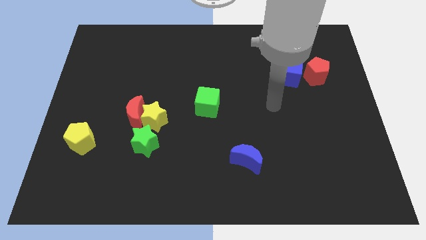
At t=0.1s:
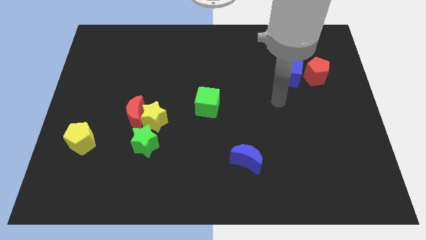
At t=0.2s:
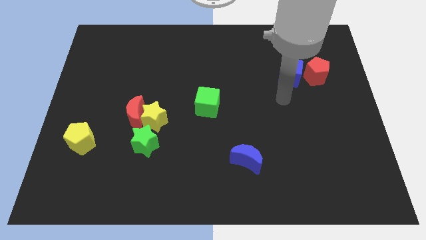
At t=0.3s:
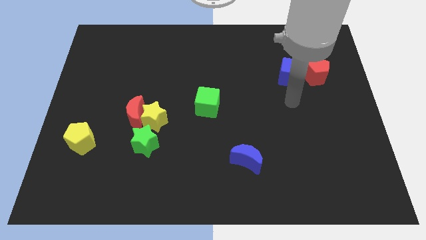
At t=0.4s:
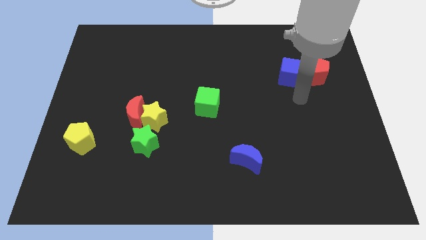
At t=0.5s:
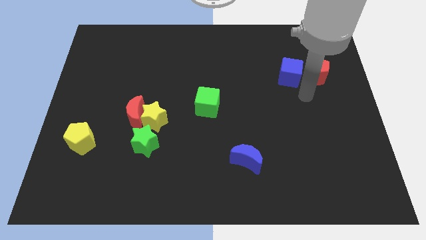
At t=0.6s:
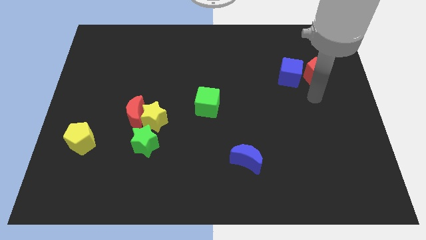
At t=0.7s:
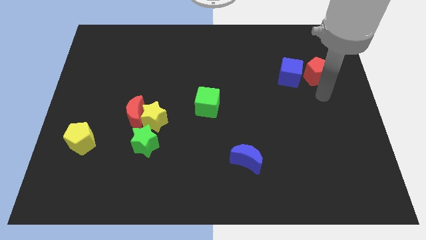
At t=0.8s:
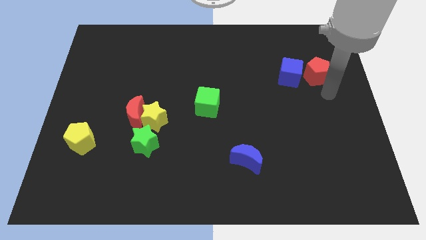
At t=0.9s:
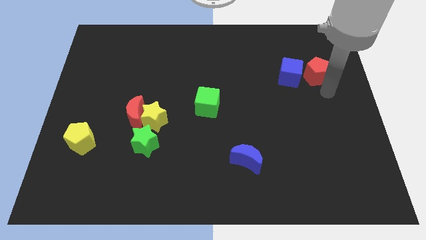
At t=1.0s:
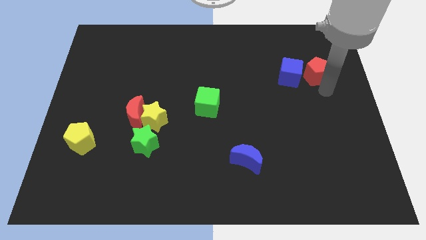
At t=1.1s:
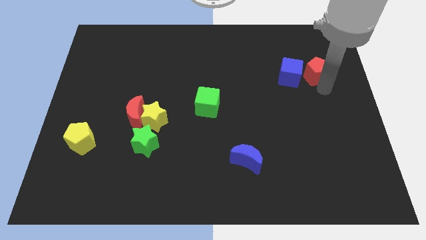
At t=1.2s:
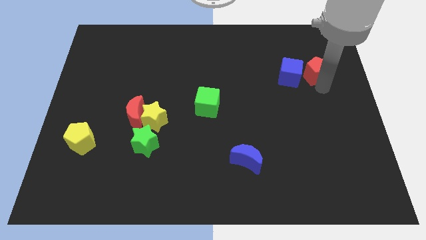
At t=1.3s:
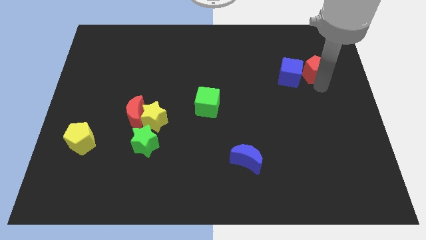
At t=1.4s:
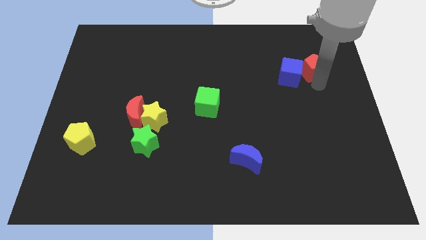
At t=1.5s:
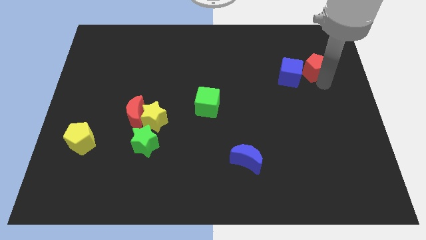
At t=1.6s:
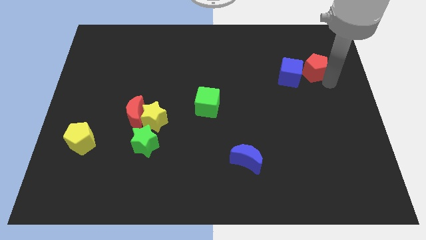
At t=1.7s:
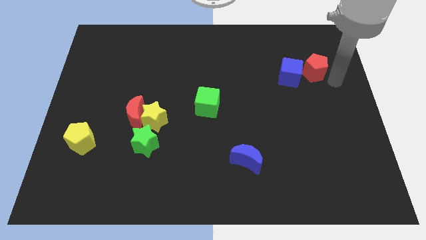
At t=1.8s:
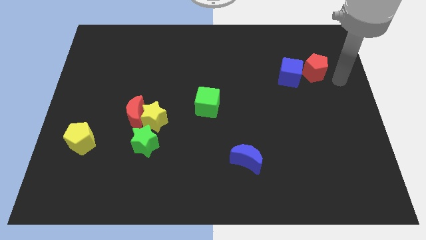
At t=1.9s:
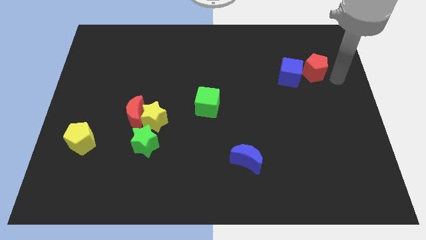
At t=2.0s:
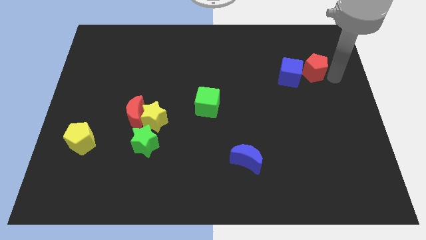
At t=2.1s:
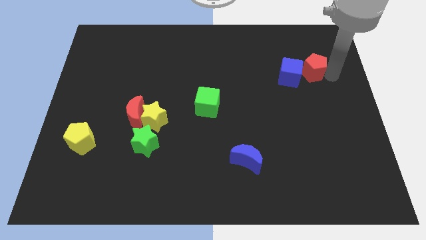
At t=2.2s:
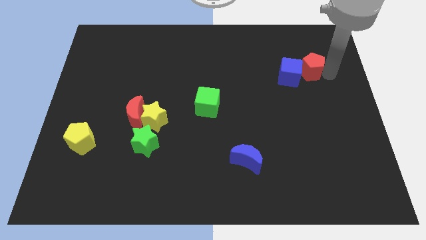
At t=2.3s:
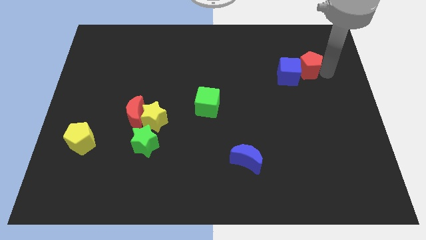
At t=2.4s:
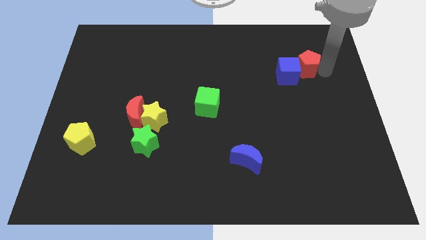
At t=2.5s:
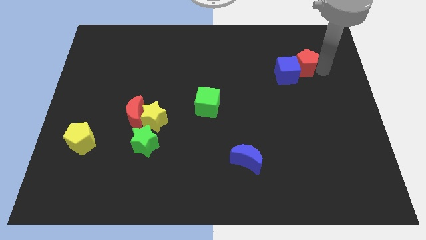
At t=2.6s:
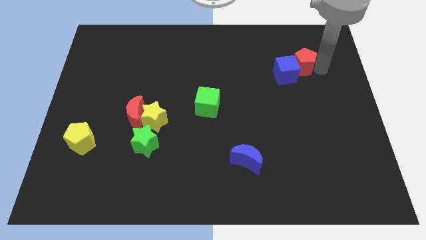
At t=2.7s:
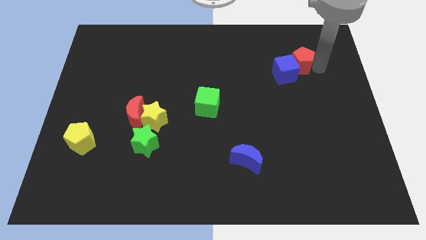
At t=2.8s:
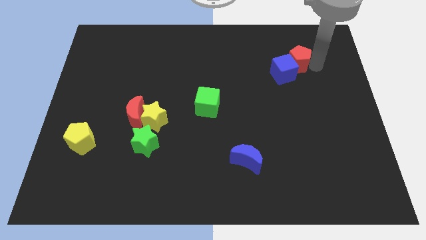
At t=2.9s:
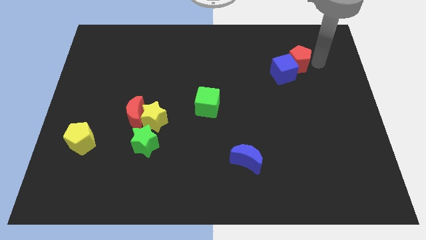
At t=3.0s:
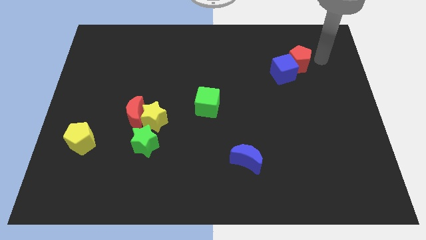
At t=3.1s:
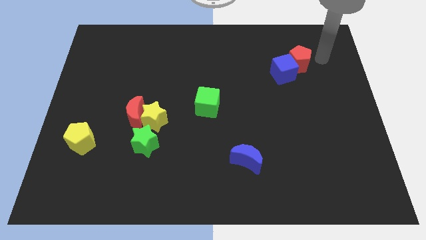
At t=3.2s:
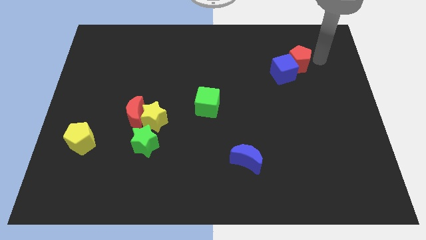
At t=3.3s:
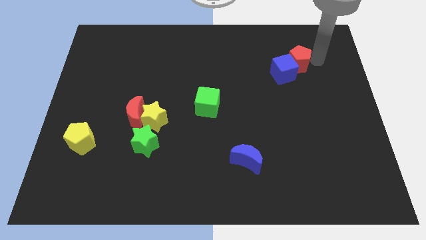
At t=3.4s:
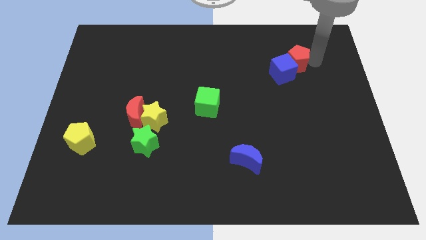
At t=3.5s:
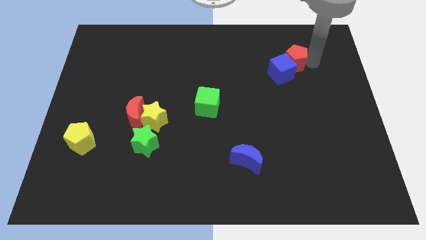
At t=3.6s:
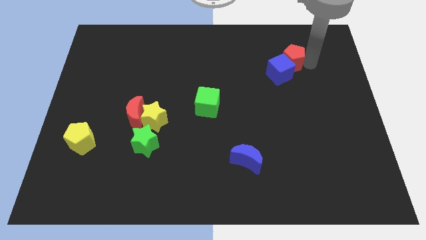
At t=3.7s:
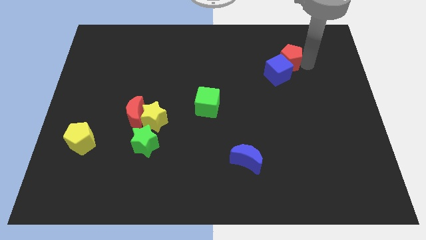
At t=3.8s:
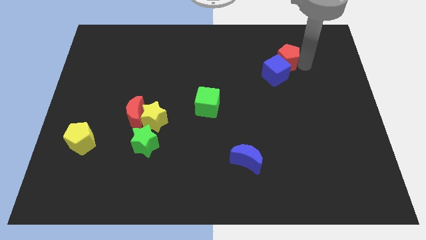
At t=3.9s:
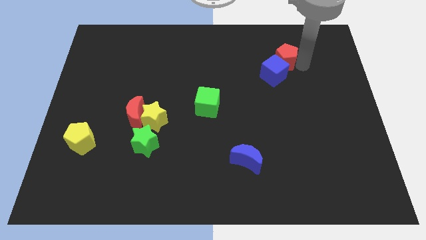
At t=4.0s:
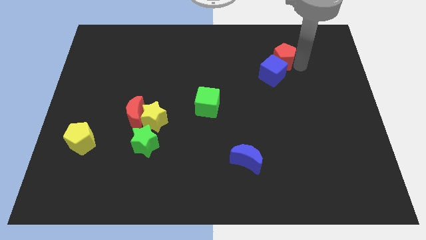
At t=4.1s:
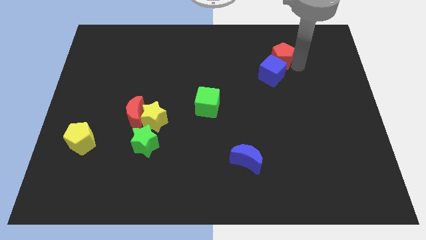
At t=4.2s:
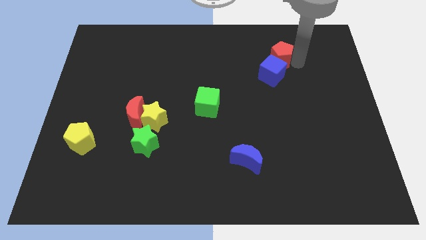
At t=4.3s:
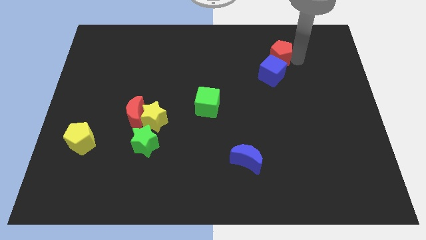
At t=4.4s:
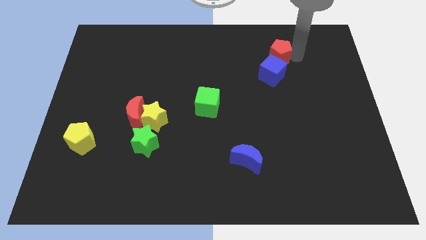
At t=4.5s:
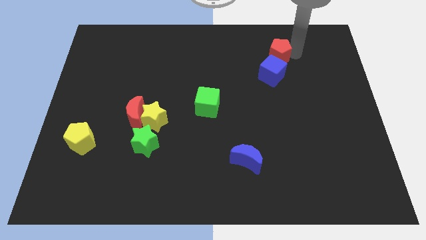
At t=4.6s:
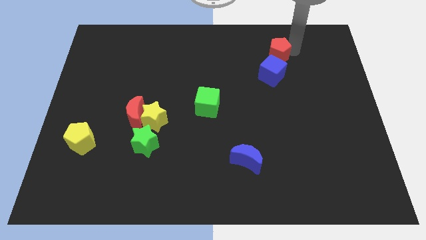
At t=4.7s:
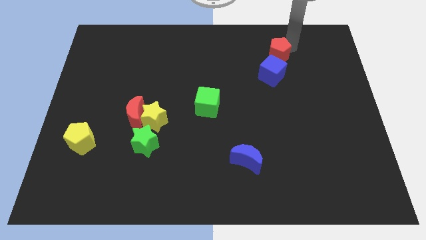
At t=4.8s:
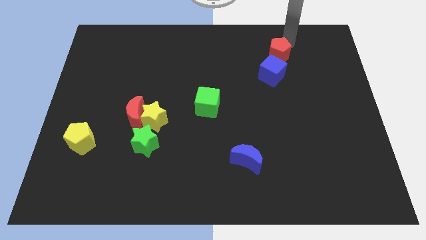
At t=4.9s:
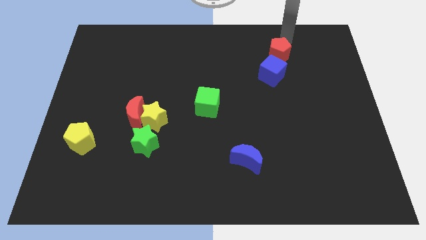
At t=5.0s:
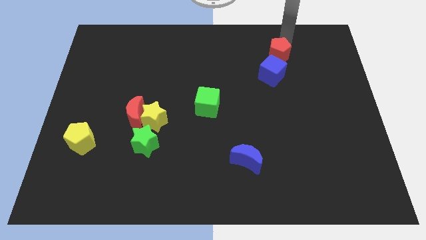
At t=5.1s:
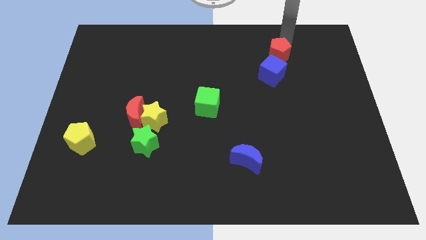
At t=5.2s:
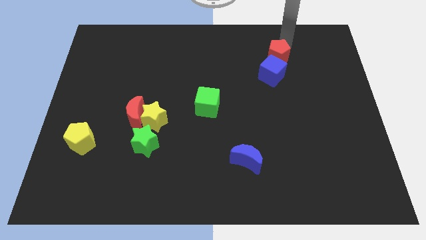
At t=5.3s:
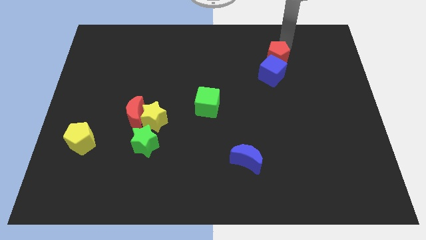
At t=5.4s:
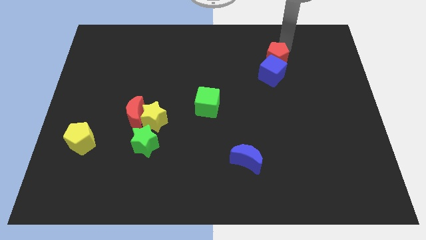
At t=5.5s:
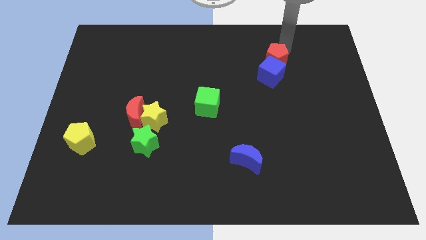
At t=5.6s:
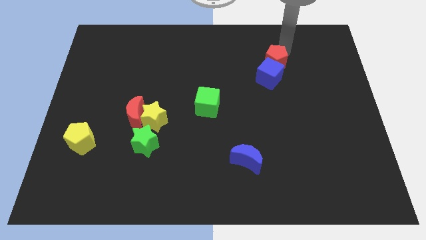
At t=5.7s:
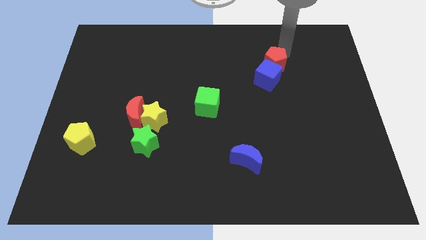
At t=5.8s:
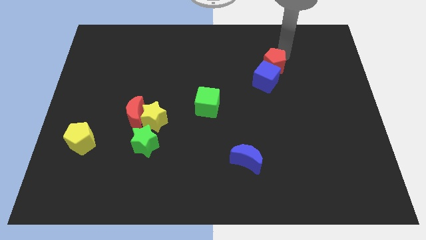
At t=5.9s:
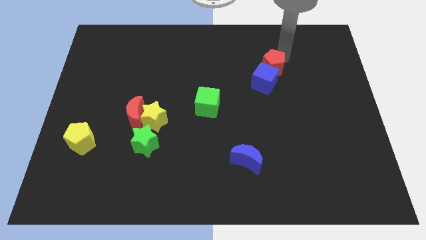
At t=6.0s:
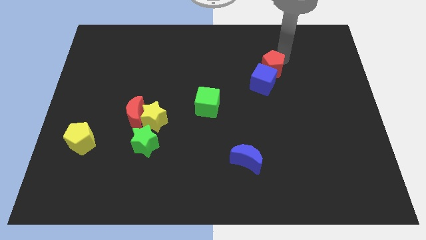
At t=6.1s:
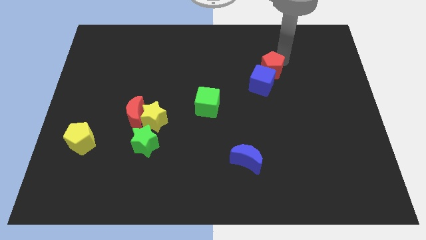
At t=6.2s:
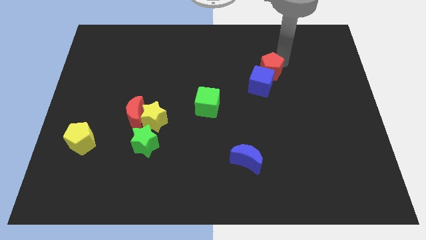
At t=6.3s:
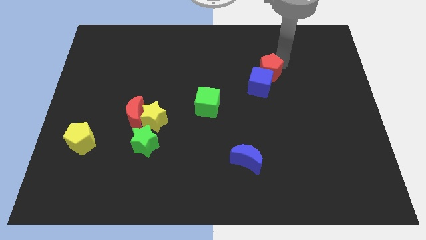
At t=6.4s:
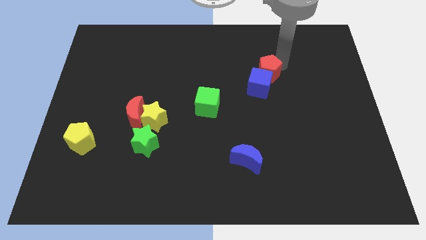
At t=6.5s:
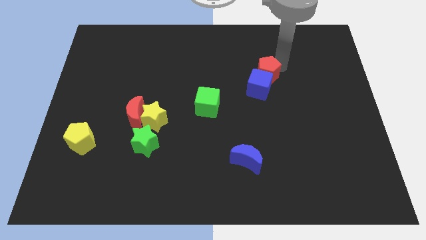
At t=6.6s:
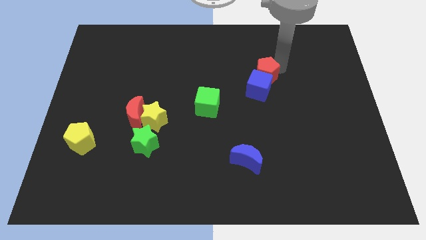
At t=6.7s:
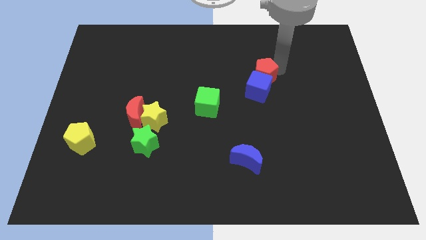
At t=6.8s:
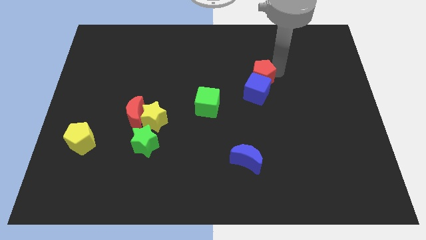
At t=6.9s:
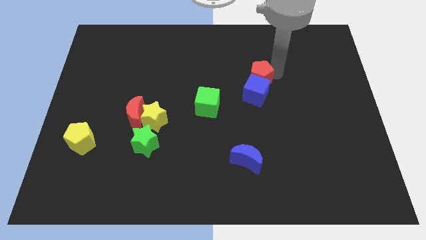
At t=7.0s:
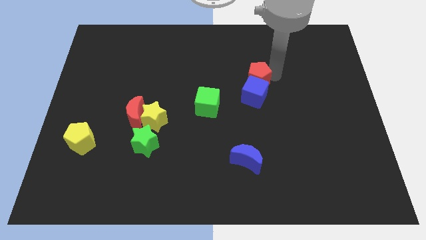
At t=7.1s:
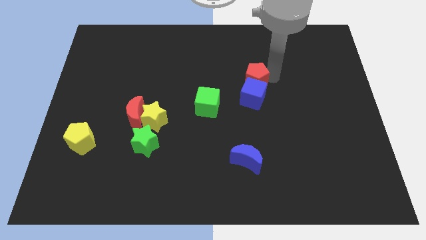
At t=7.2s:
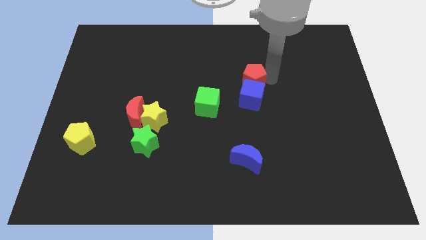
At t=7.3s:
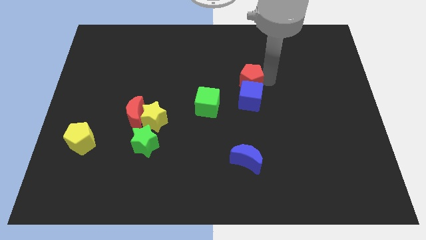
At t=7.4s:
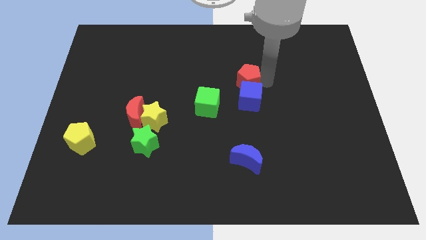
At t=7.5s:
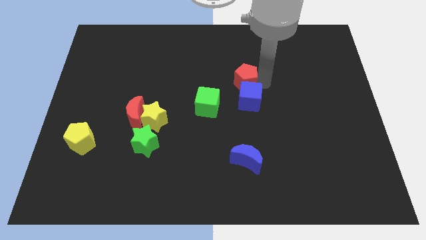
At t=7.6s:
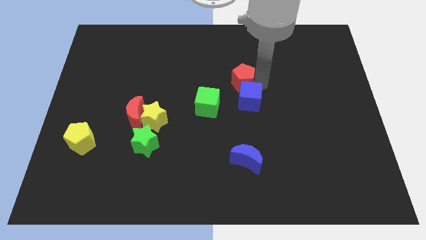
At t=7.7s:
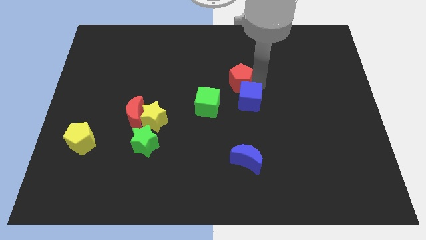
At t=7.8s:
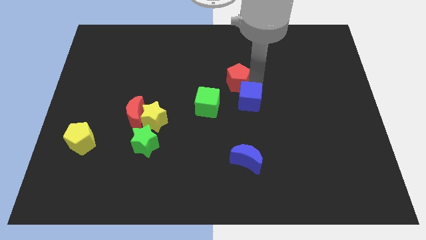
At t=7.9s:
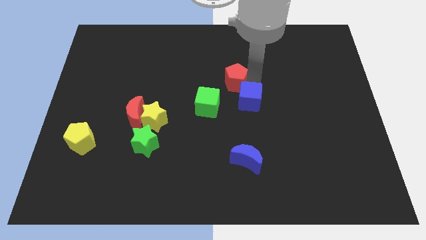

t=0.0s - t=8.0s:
push the red pentagon to the left

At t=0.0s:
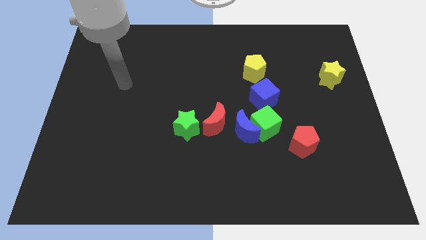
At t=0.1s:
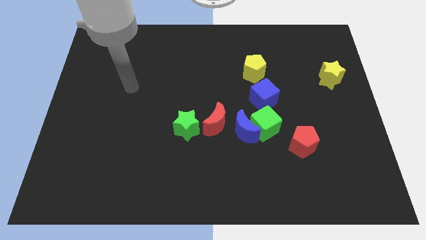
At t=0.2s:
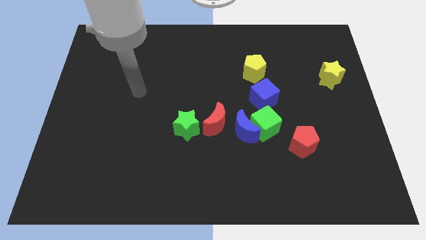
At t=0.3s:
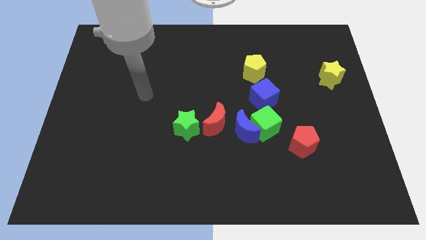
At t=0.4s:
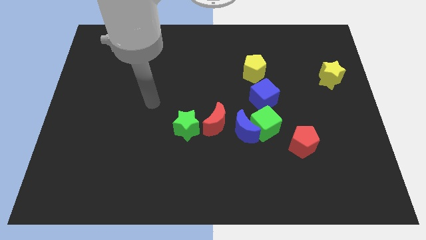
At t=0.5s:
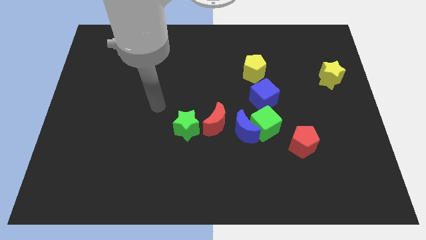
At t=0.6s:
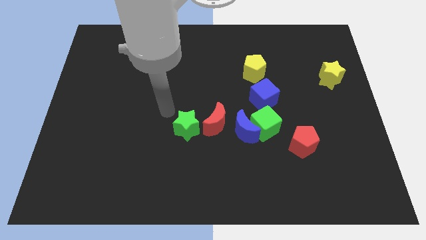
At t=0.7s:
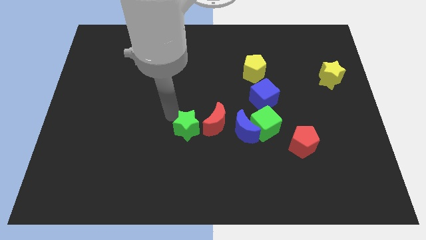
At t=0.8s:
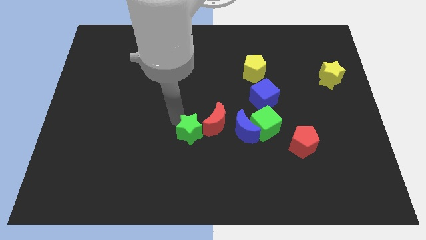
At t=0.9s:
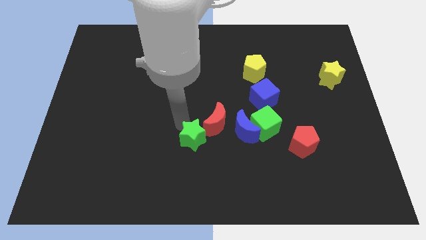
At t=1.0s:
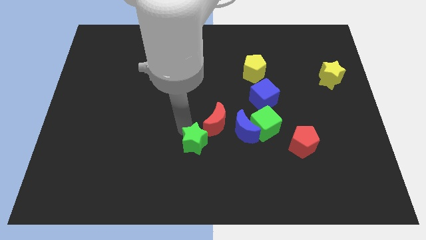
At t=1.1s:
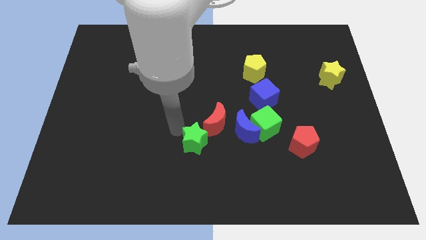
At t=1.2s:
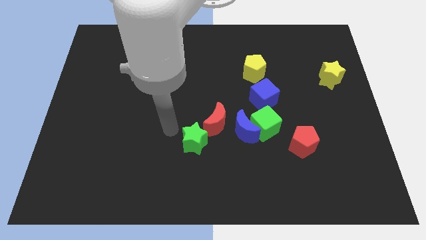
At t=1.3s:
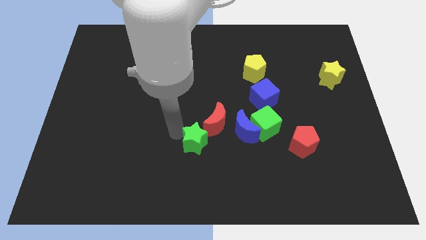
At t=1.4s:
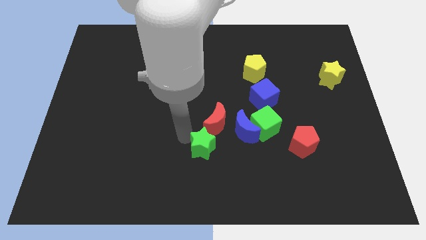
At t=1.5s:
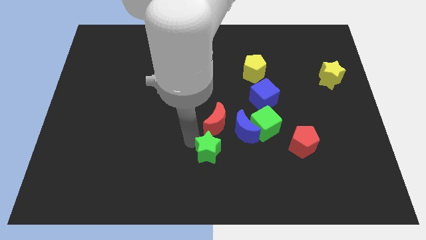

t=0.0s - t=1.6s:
slide the green star a little down and right
